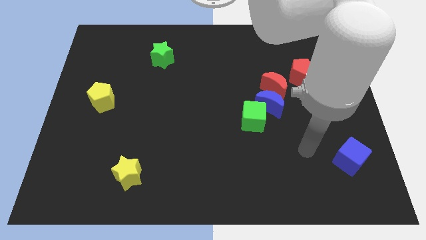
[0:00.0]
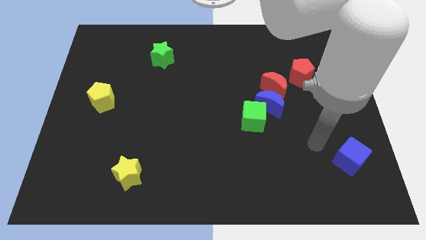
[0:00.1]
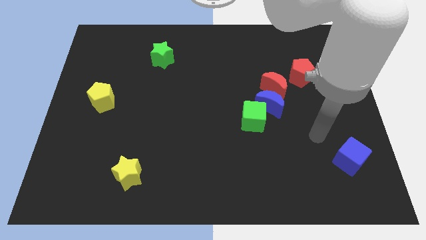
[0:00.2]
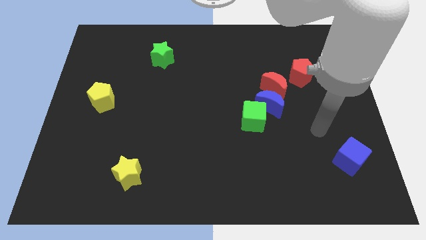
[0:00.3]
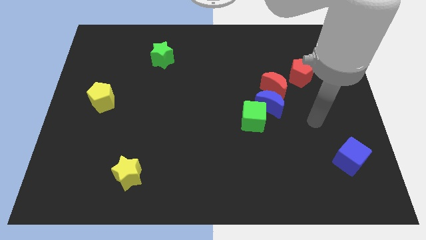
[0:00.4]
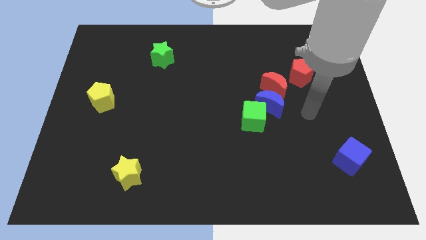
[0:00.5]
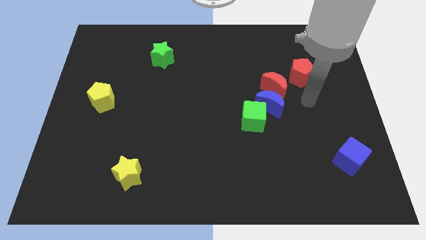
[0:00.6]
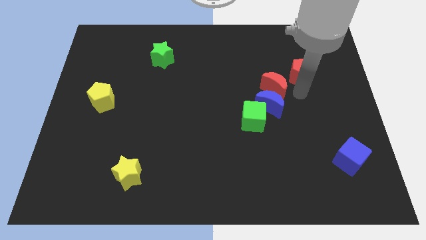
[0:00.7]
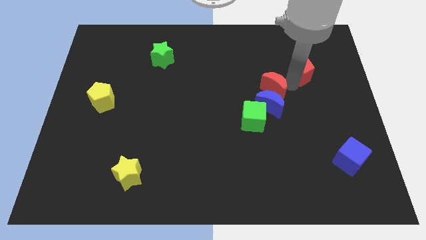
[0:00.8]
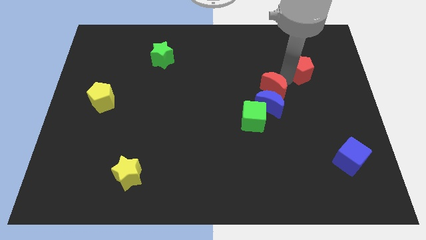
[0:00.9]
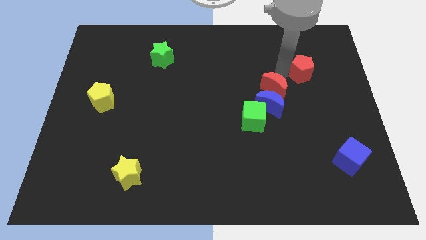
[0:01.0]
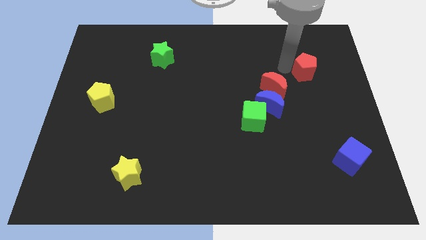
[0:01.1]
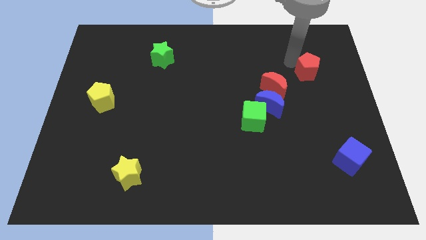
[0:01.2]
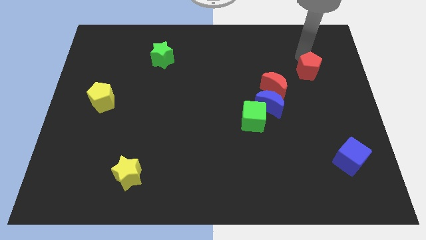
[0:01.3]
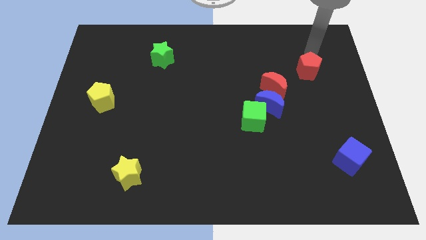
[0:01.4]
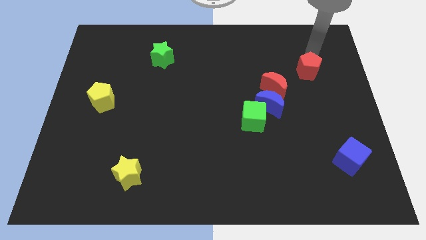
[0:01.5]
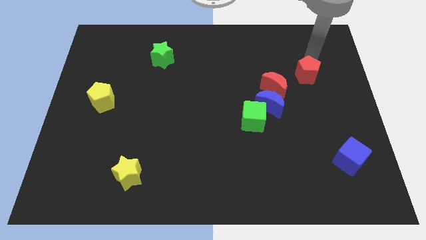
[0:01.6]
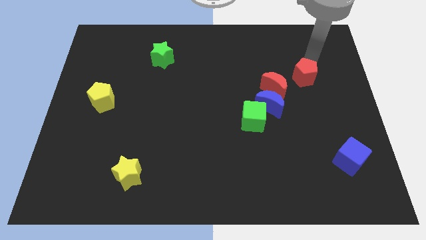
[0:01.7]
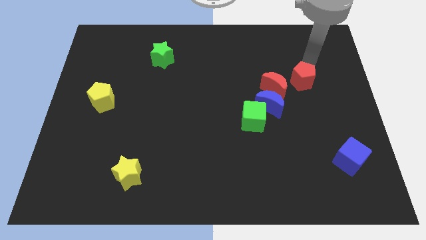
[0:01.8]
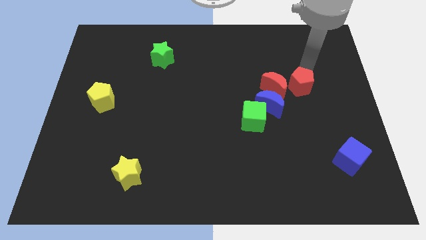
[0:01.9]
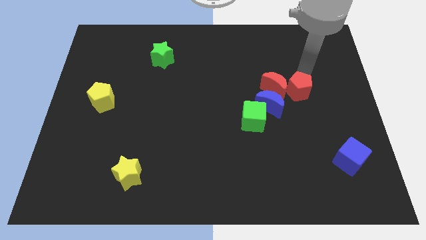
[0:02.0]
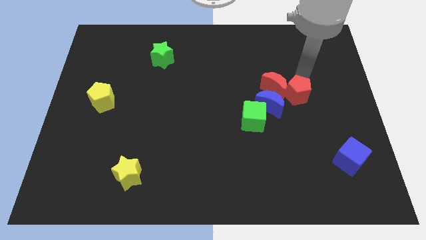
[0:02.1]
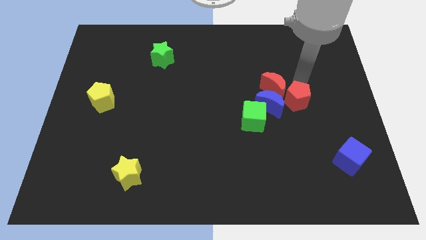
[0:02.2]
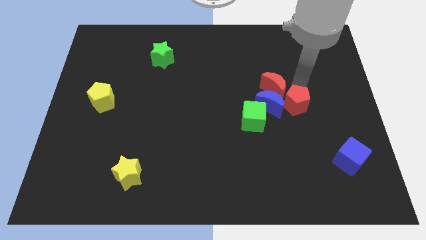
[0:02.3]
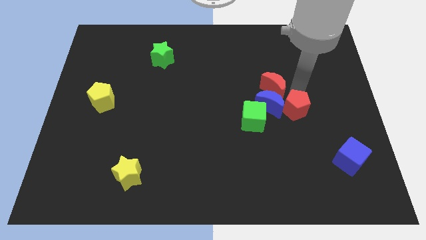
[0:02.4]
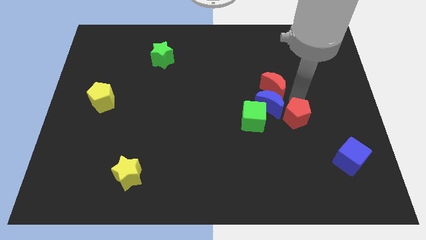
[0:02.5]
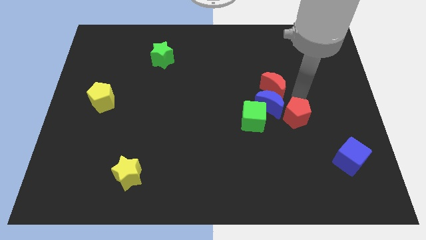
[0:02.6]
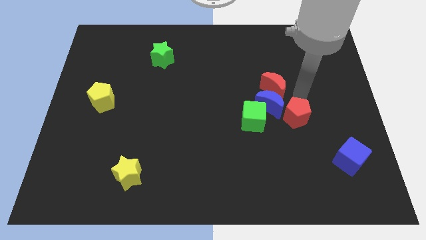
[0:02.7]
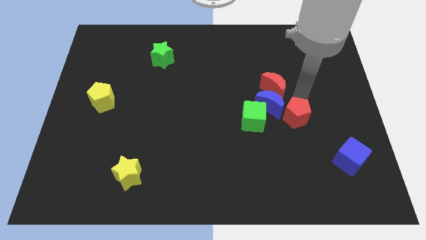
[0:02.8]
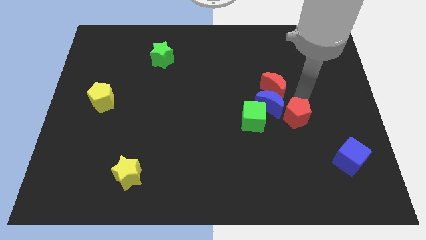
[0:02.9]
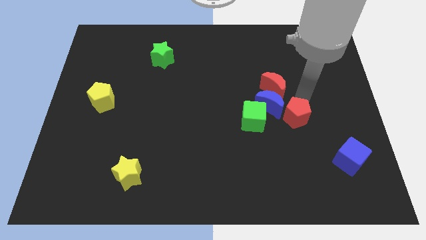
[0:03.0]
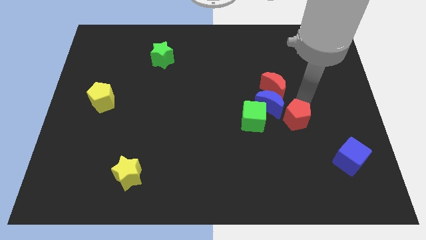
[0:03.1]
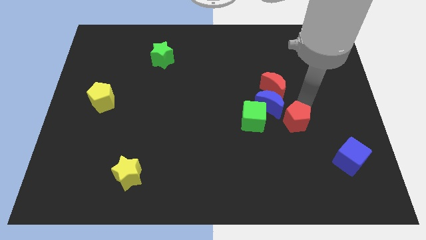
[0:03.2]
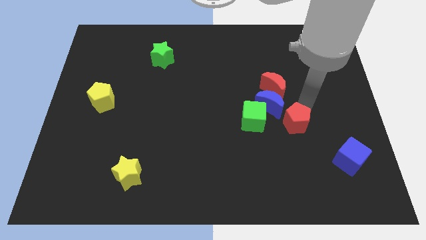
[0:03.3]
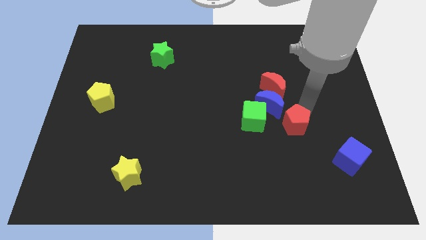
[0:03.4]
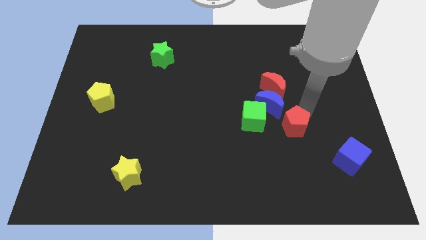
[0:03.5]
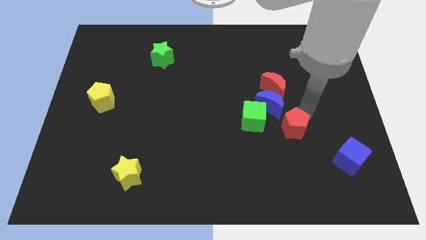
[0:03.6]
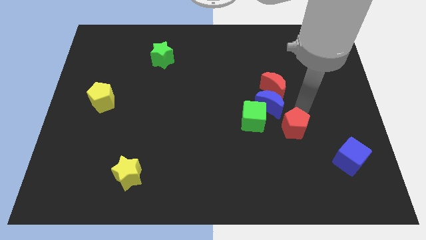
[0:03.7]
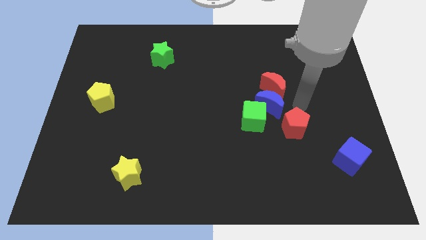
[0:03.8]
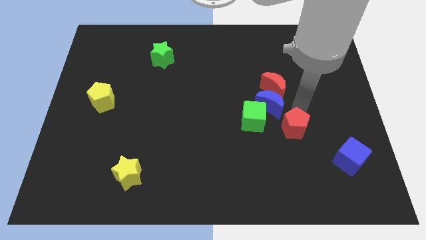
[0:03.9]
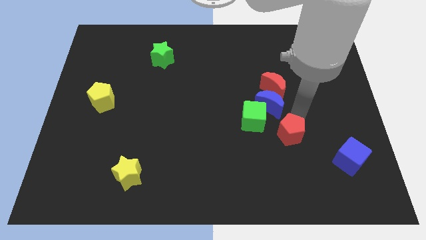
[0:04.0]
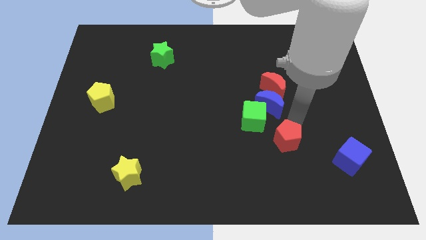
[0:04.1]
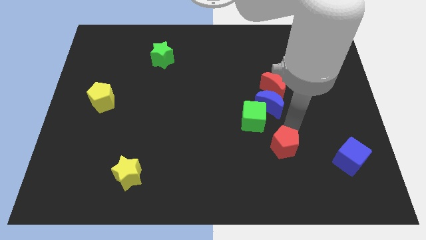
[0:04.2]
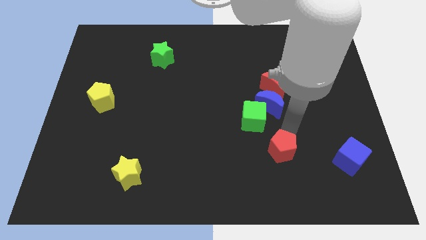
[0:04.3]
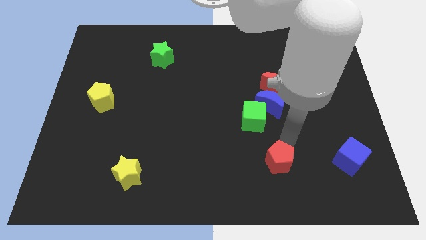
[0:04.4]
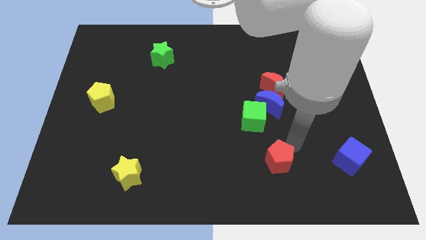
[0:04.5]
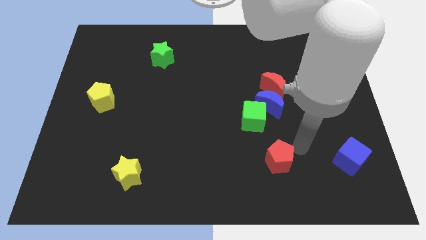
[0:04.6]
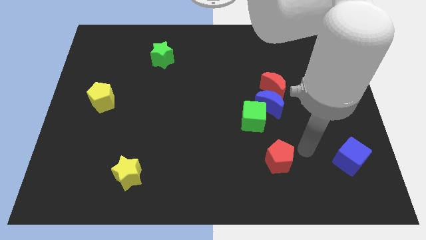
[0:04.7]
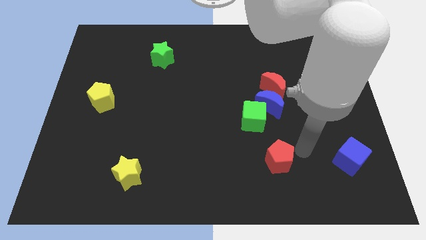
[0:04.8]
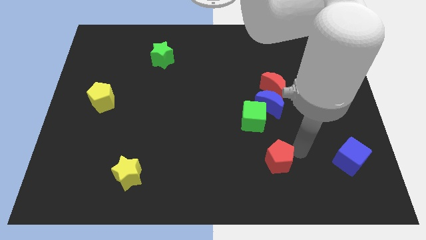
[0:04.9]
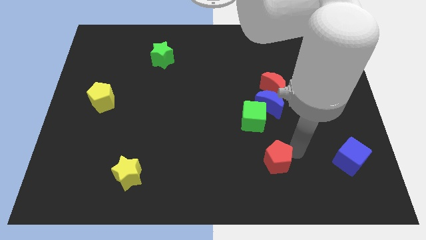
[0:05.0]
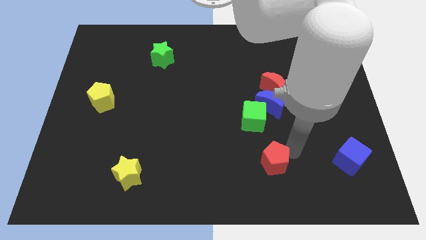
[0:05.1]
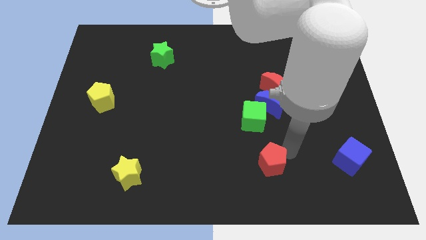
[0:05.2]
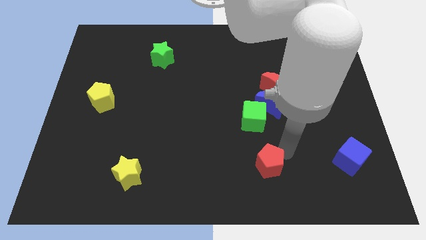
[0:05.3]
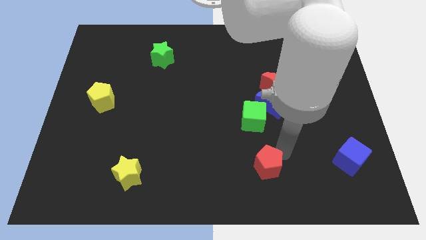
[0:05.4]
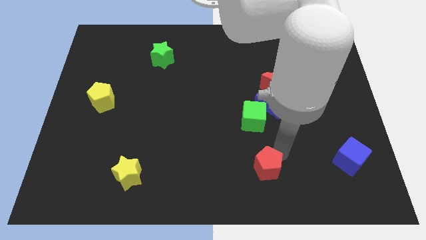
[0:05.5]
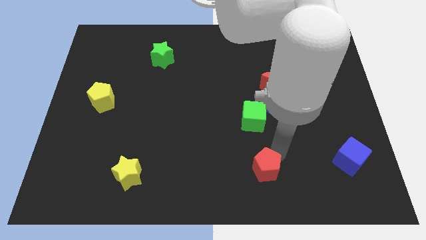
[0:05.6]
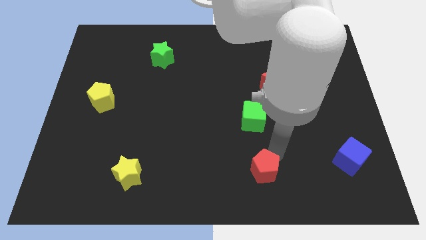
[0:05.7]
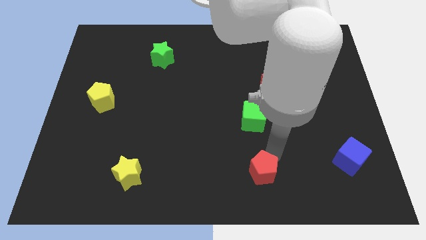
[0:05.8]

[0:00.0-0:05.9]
put the red pentagon to the bottom

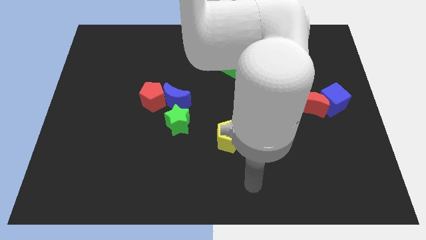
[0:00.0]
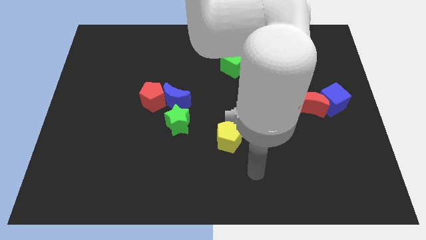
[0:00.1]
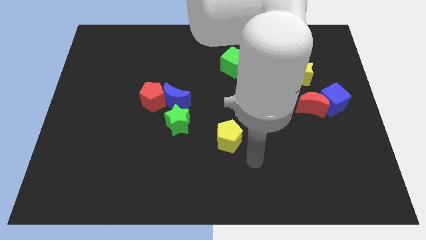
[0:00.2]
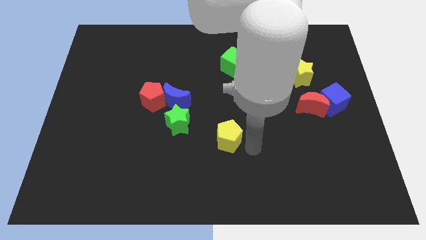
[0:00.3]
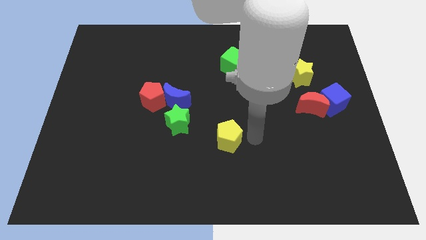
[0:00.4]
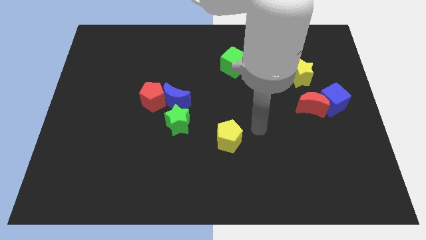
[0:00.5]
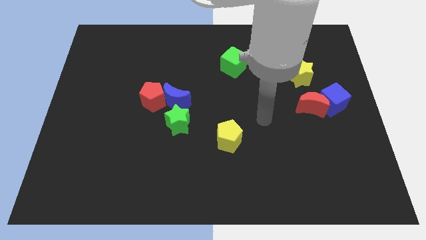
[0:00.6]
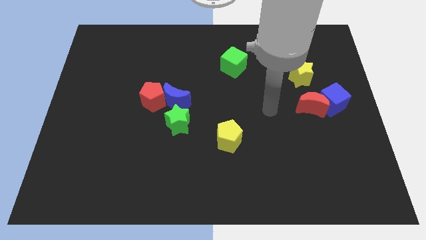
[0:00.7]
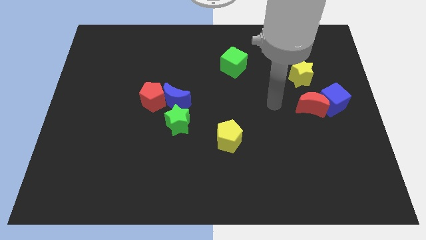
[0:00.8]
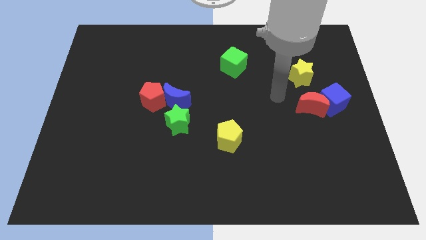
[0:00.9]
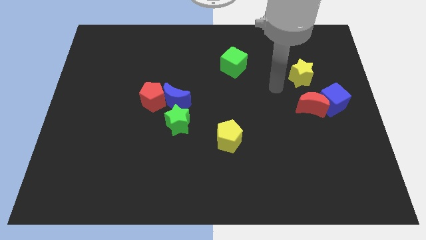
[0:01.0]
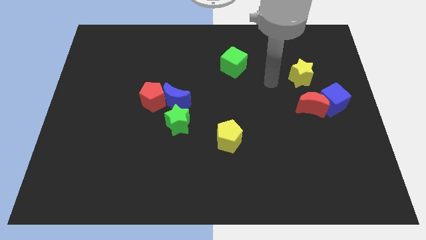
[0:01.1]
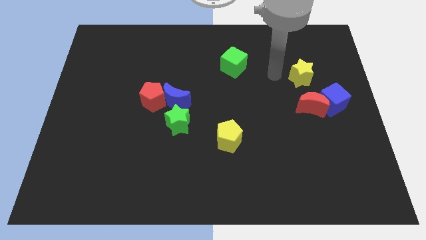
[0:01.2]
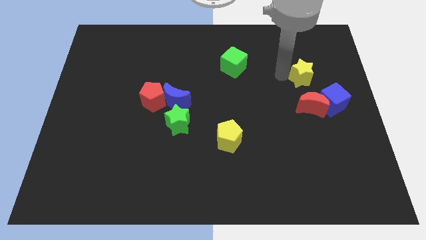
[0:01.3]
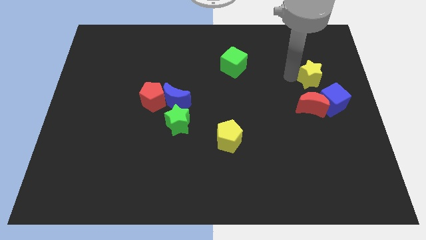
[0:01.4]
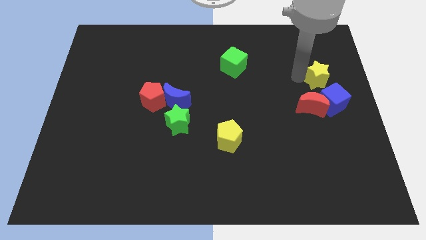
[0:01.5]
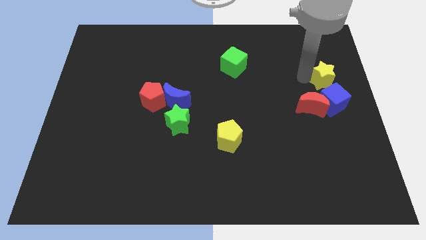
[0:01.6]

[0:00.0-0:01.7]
push the yellow star to the right side of the board
